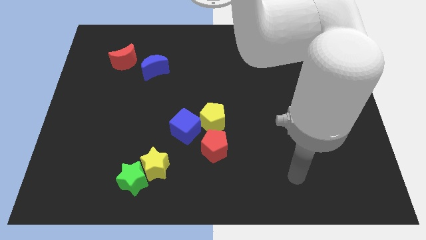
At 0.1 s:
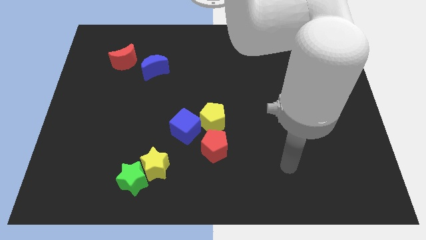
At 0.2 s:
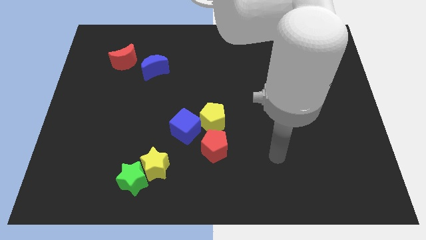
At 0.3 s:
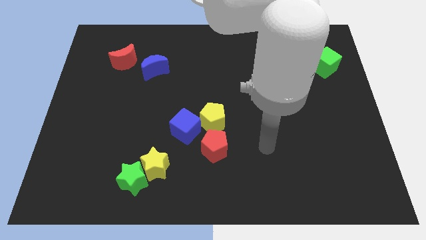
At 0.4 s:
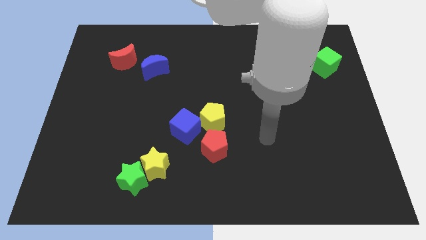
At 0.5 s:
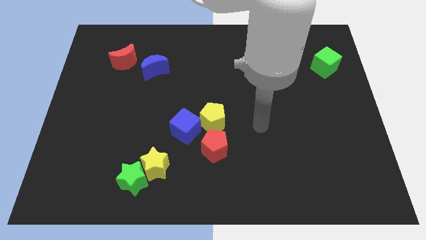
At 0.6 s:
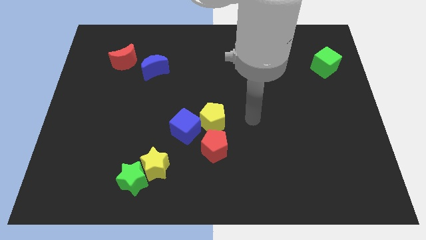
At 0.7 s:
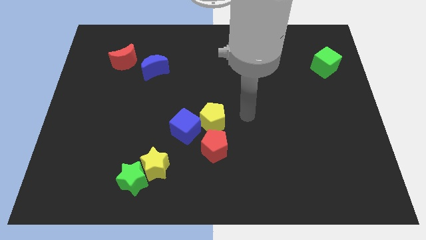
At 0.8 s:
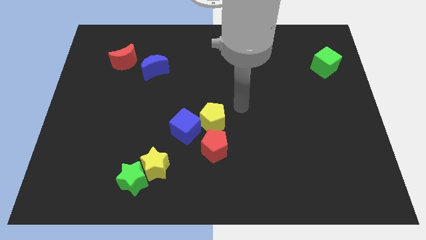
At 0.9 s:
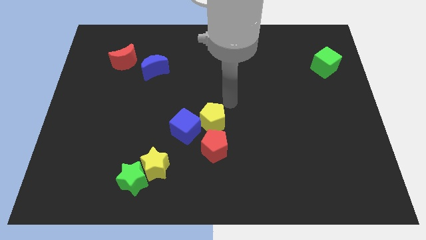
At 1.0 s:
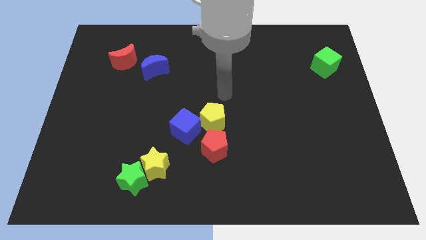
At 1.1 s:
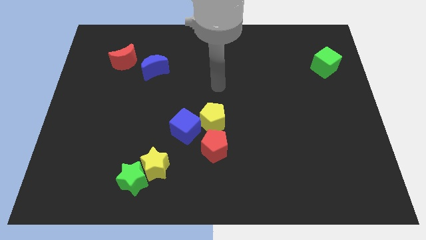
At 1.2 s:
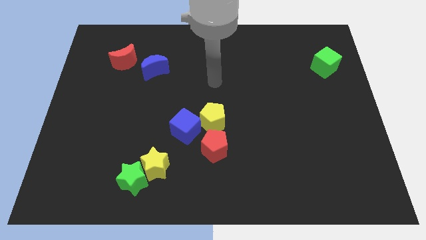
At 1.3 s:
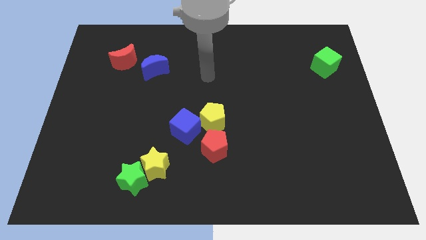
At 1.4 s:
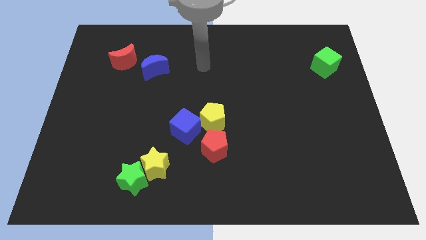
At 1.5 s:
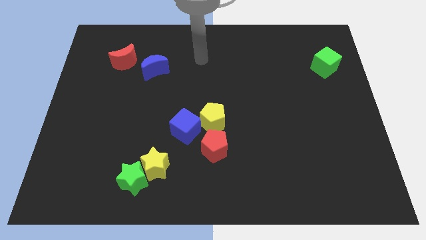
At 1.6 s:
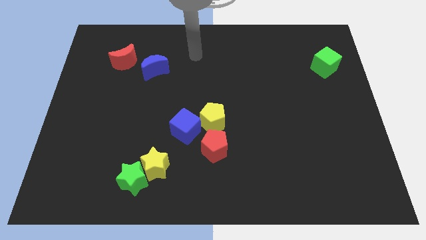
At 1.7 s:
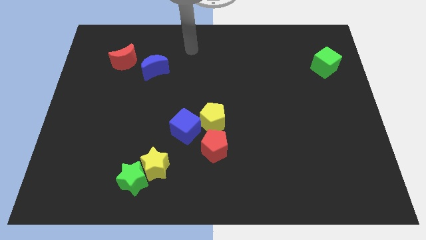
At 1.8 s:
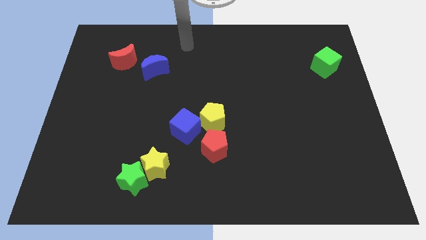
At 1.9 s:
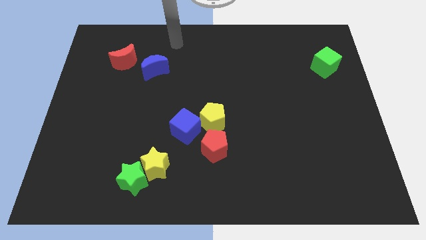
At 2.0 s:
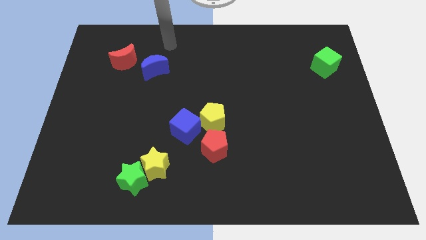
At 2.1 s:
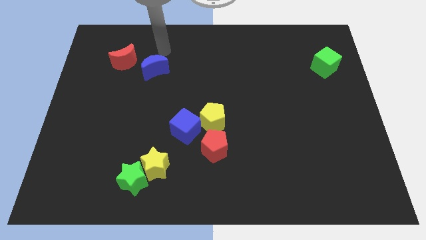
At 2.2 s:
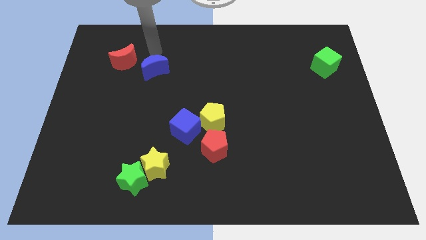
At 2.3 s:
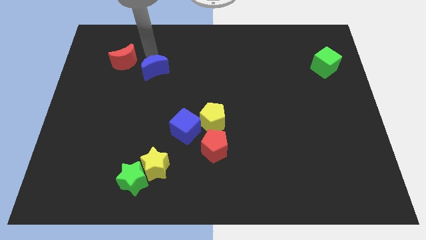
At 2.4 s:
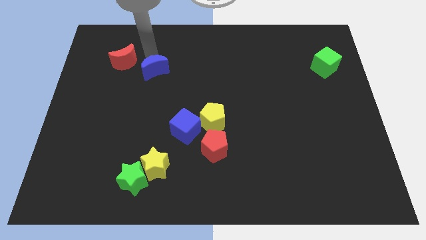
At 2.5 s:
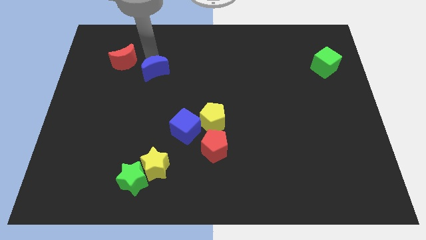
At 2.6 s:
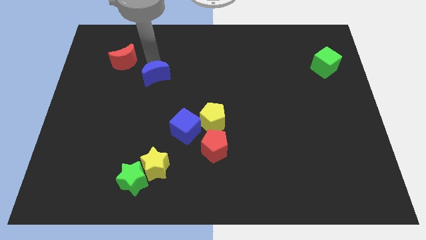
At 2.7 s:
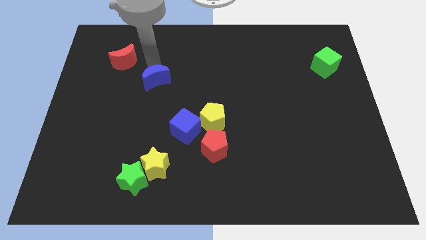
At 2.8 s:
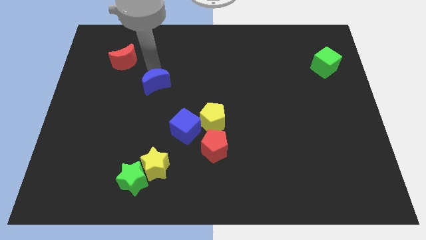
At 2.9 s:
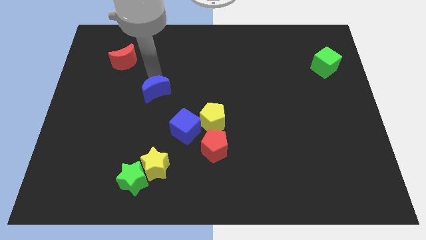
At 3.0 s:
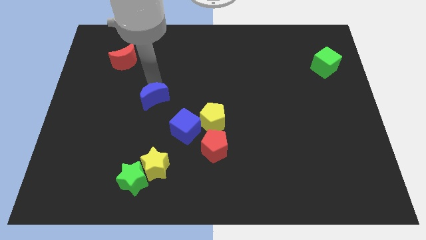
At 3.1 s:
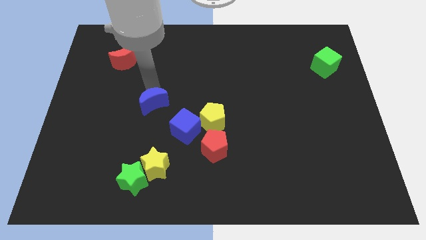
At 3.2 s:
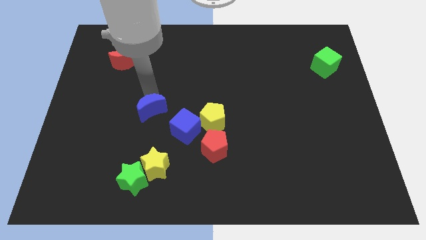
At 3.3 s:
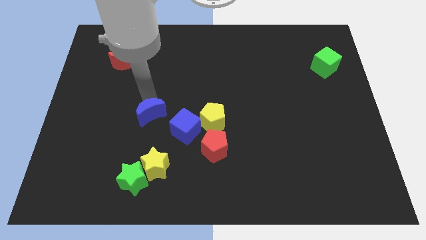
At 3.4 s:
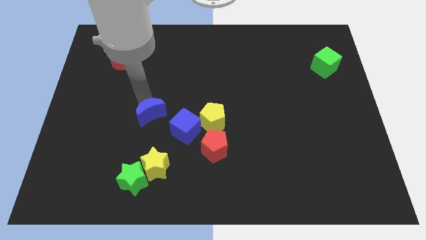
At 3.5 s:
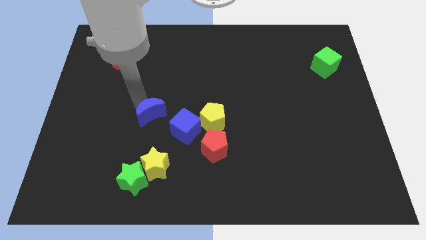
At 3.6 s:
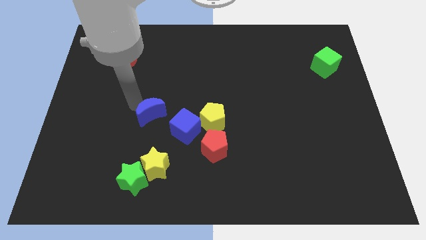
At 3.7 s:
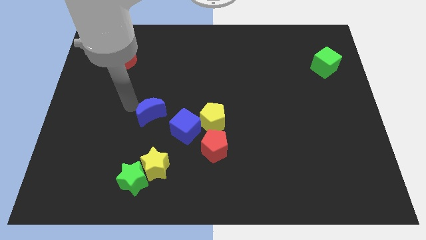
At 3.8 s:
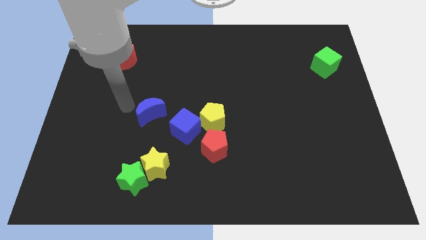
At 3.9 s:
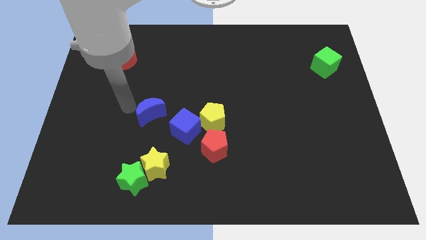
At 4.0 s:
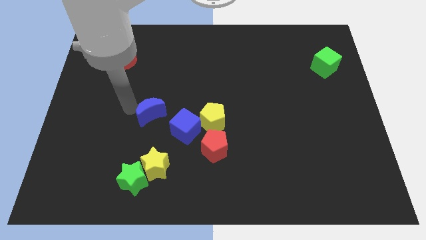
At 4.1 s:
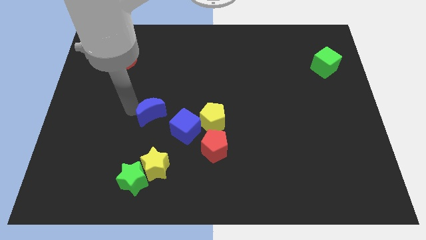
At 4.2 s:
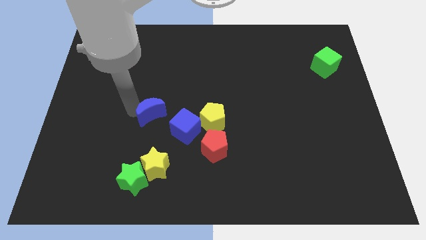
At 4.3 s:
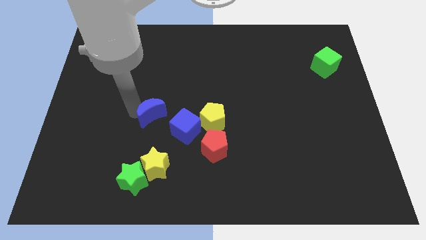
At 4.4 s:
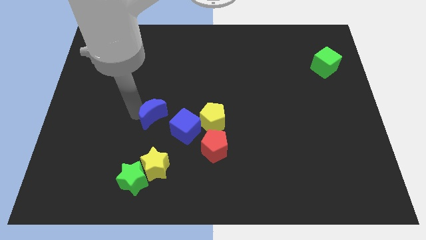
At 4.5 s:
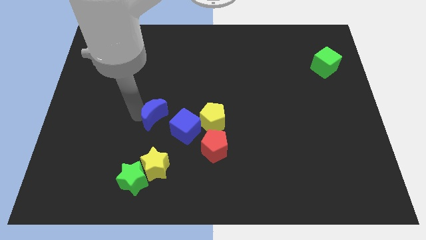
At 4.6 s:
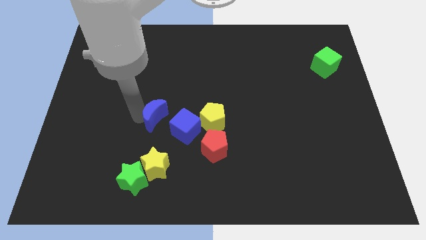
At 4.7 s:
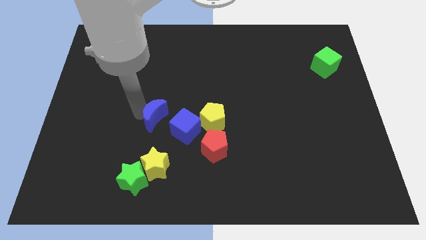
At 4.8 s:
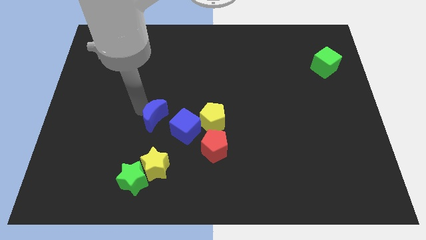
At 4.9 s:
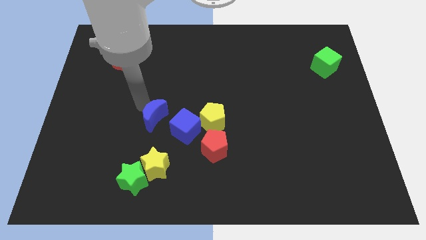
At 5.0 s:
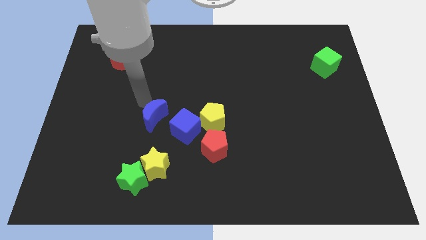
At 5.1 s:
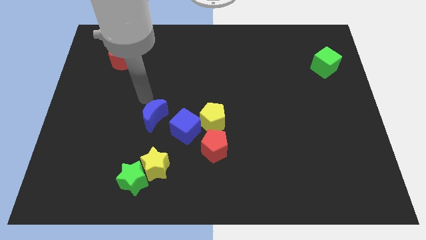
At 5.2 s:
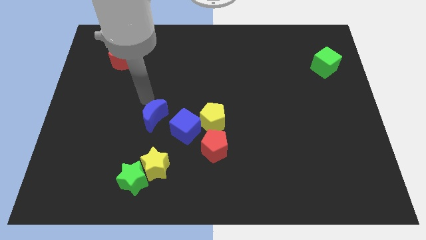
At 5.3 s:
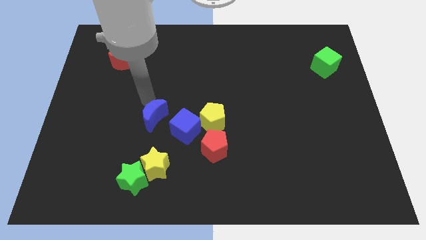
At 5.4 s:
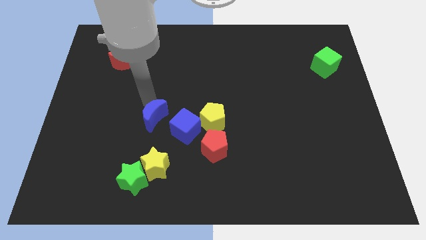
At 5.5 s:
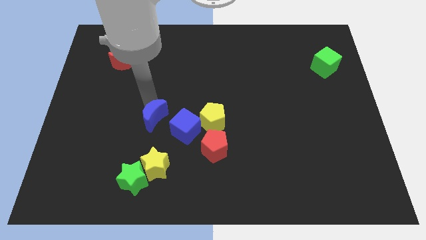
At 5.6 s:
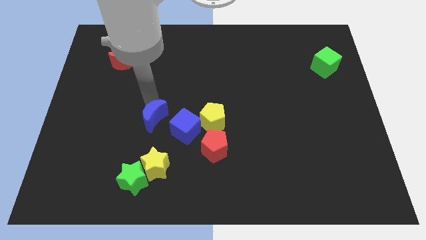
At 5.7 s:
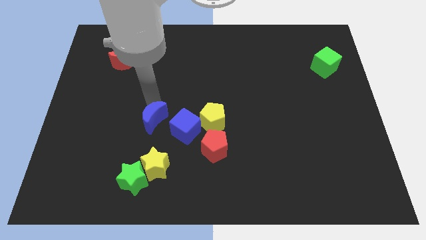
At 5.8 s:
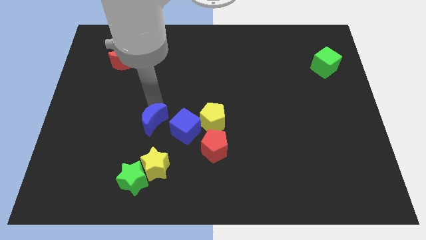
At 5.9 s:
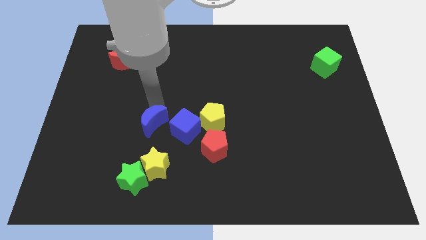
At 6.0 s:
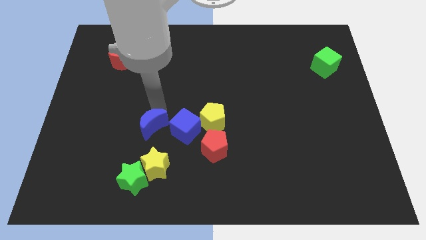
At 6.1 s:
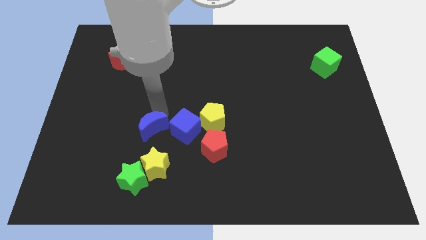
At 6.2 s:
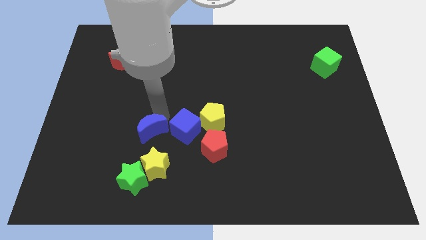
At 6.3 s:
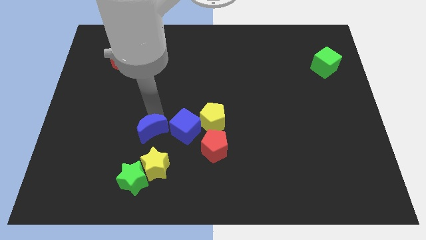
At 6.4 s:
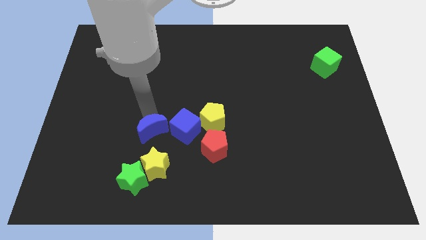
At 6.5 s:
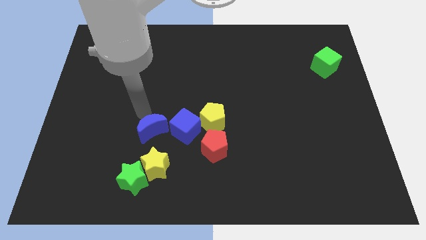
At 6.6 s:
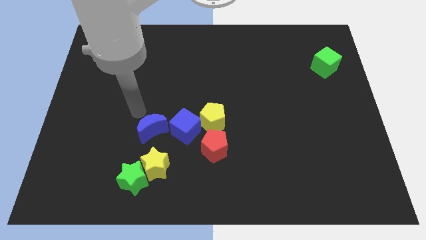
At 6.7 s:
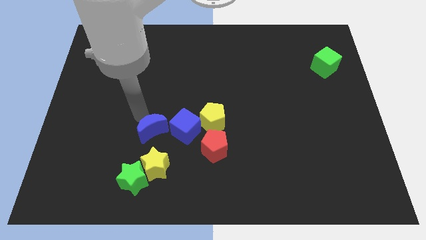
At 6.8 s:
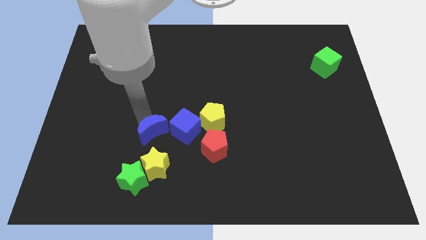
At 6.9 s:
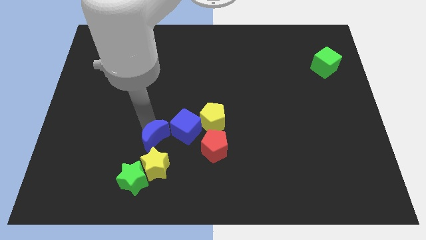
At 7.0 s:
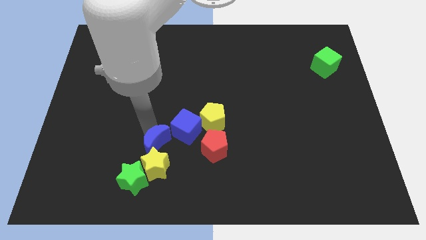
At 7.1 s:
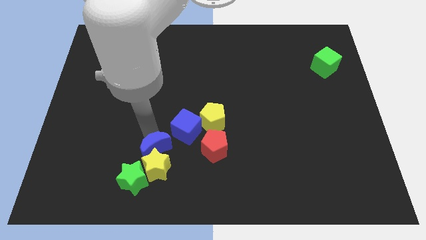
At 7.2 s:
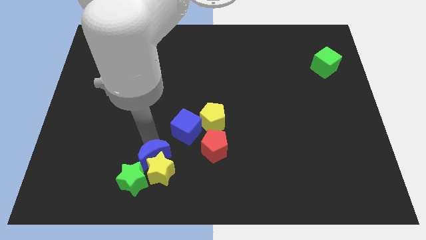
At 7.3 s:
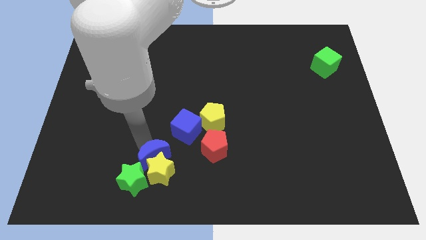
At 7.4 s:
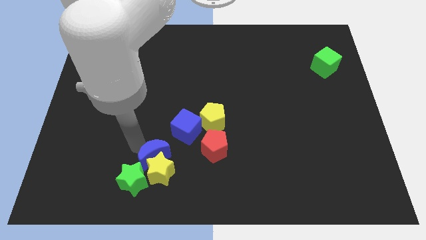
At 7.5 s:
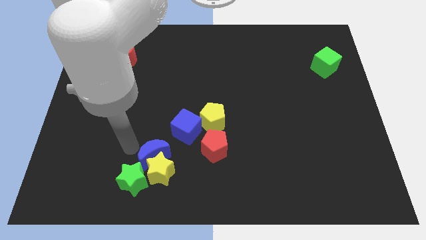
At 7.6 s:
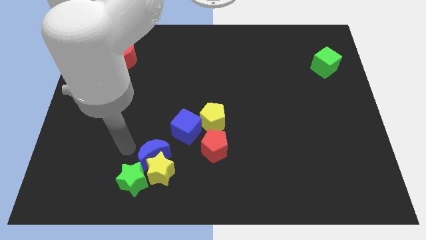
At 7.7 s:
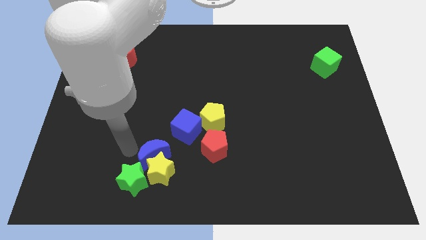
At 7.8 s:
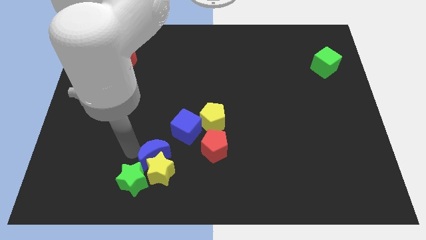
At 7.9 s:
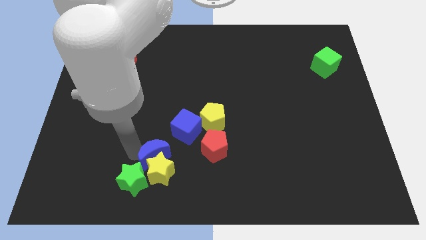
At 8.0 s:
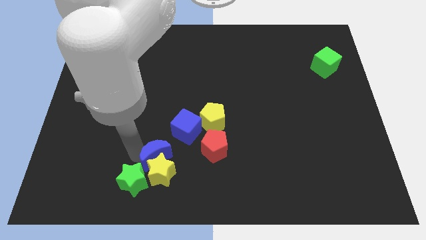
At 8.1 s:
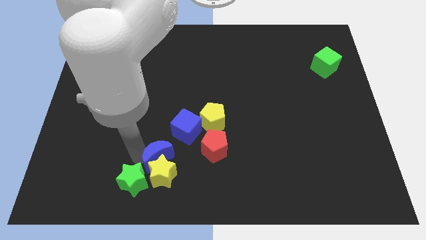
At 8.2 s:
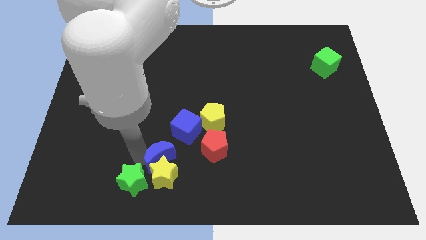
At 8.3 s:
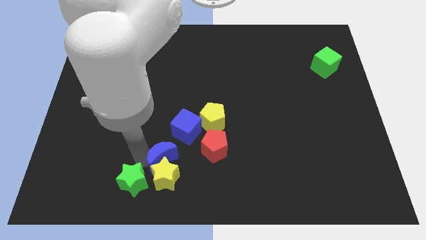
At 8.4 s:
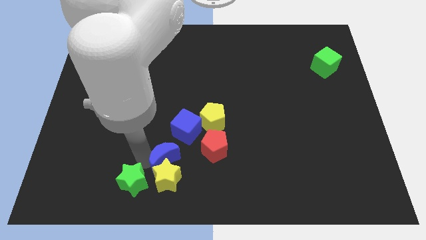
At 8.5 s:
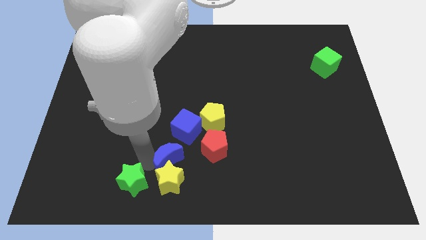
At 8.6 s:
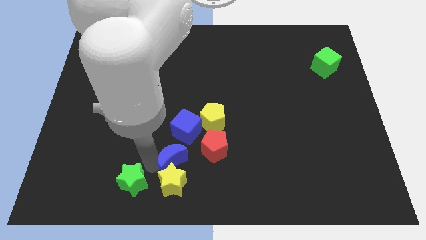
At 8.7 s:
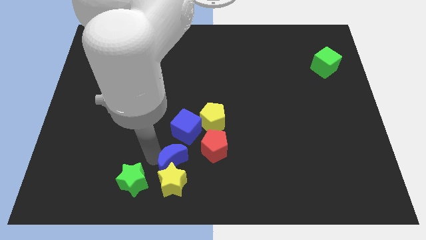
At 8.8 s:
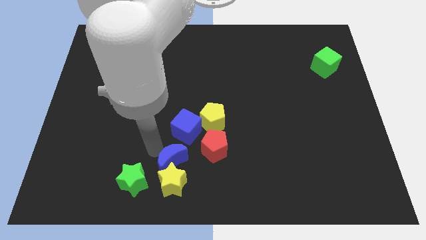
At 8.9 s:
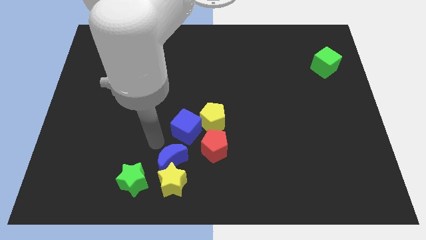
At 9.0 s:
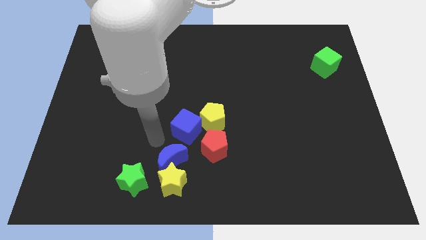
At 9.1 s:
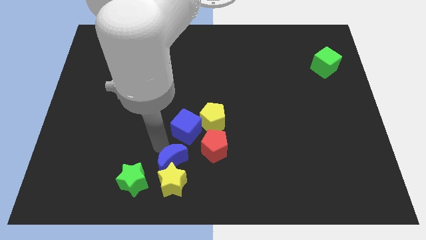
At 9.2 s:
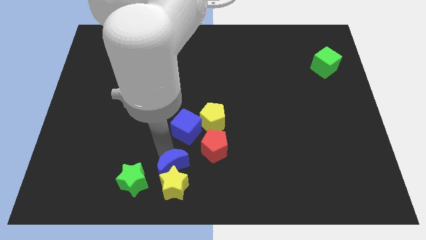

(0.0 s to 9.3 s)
push the blue moon to the bottom
